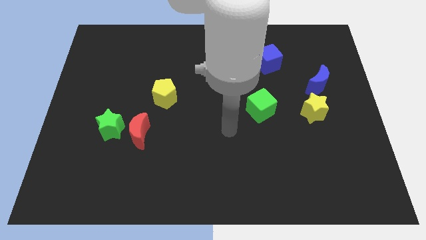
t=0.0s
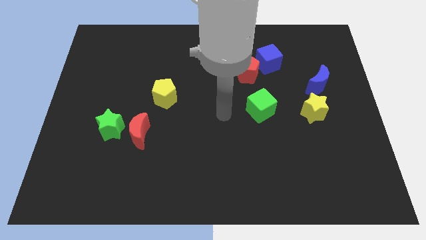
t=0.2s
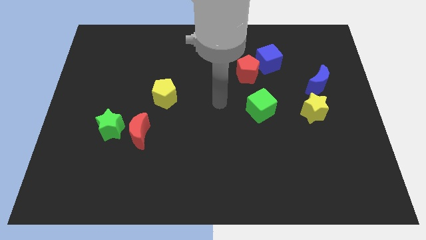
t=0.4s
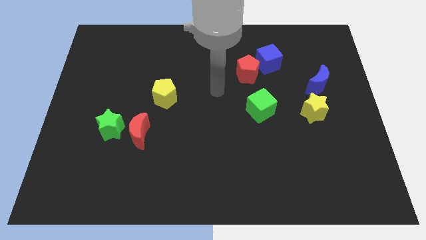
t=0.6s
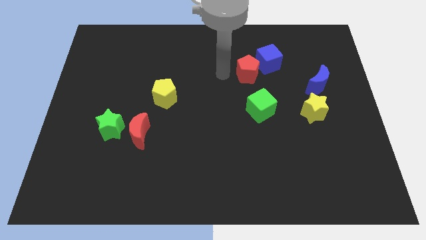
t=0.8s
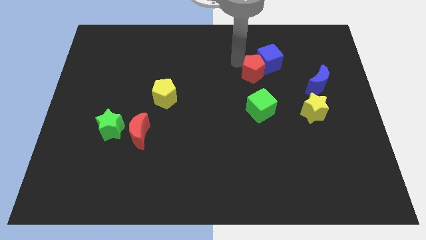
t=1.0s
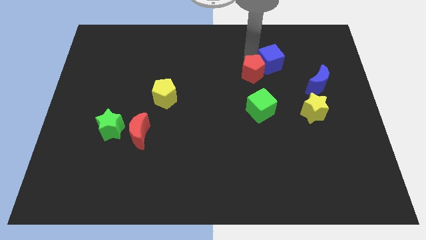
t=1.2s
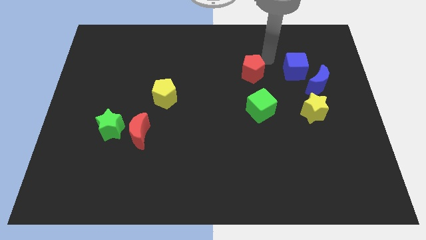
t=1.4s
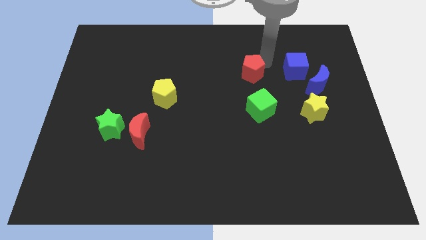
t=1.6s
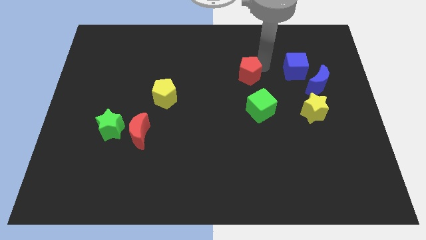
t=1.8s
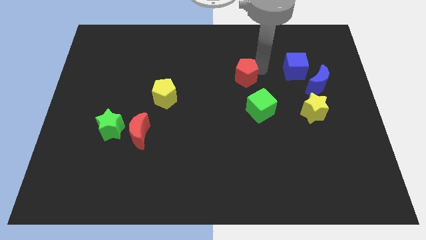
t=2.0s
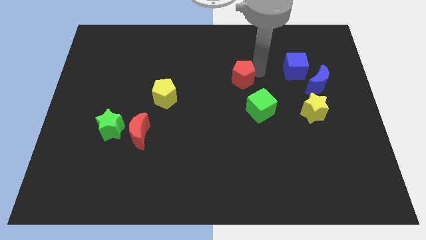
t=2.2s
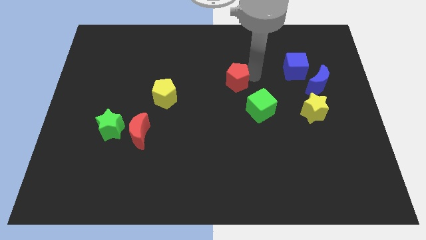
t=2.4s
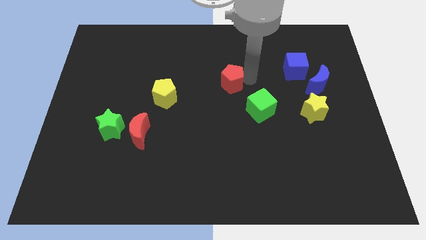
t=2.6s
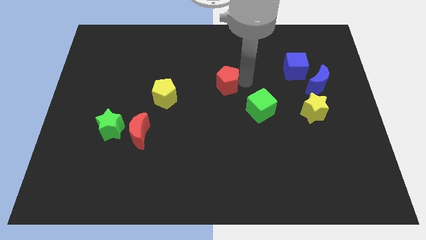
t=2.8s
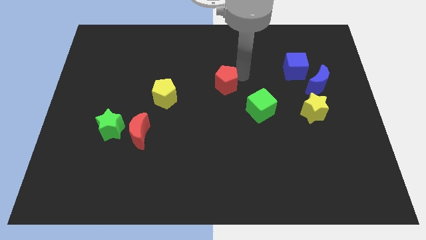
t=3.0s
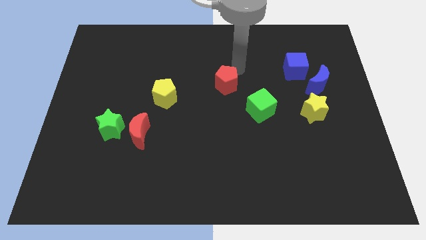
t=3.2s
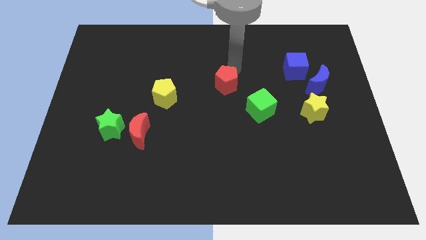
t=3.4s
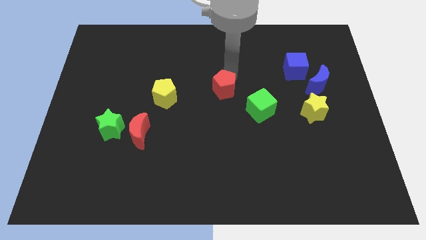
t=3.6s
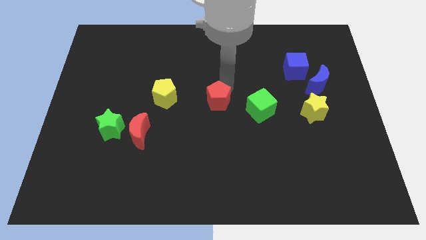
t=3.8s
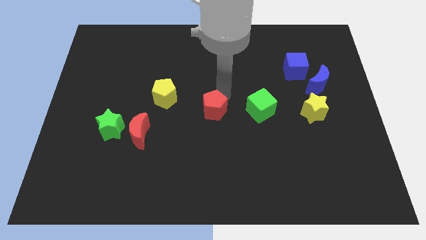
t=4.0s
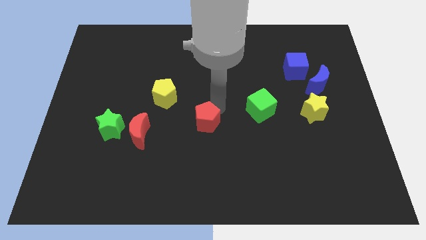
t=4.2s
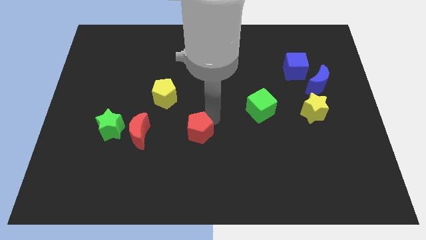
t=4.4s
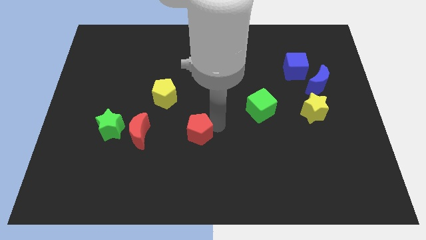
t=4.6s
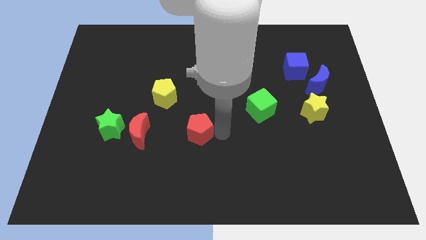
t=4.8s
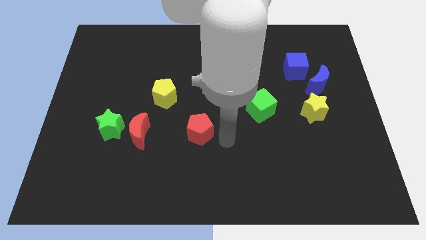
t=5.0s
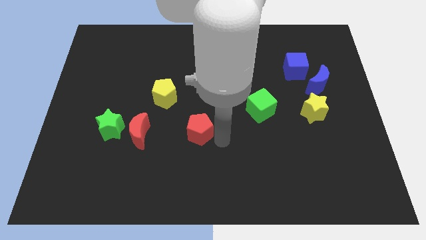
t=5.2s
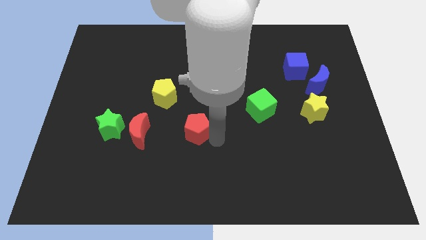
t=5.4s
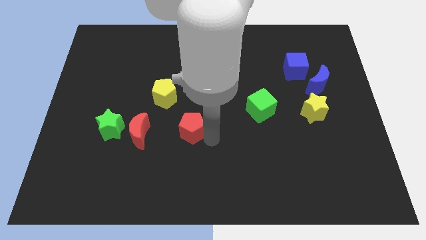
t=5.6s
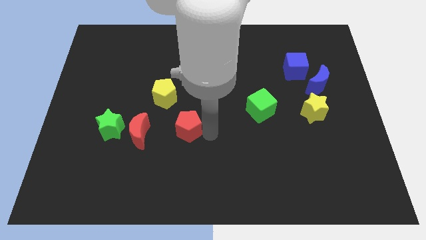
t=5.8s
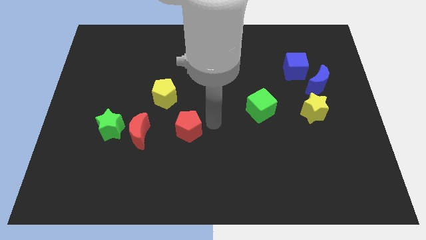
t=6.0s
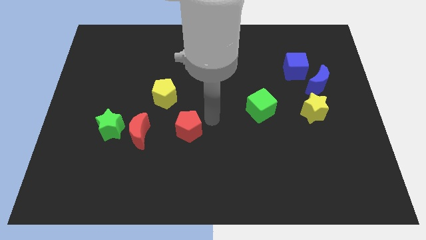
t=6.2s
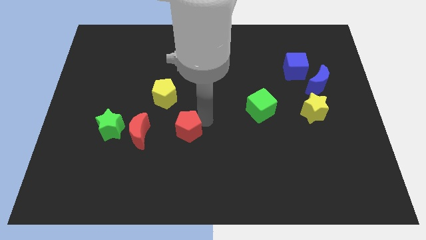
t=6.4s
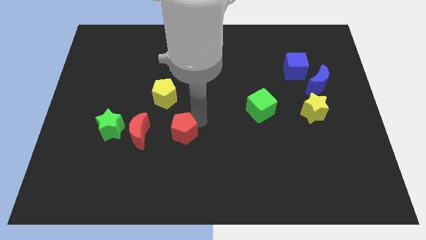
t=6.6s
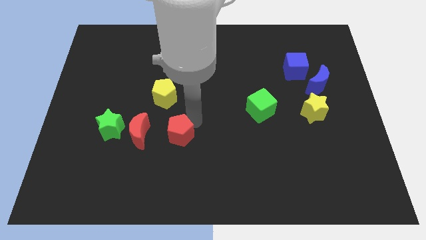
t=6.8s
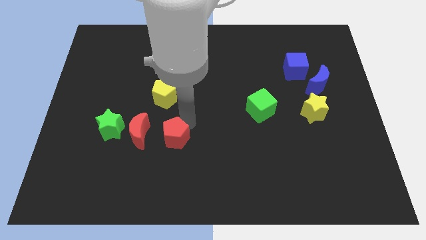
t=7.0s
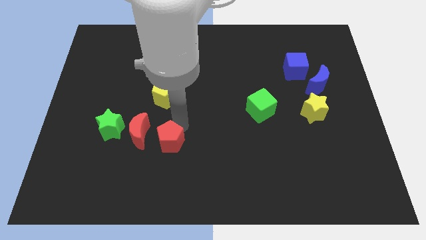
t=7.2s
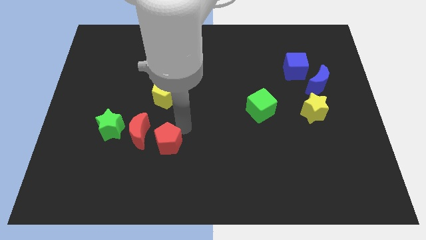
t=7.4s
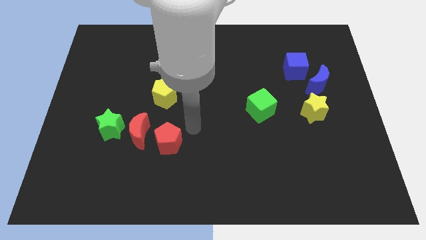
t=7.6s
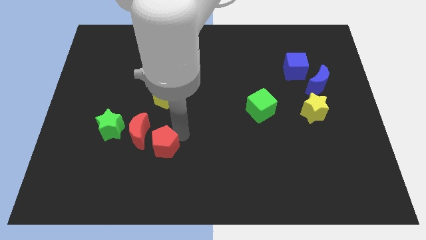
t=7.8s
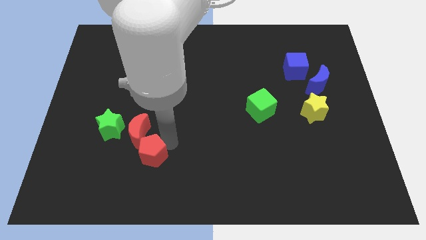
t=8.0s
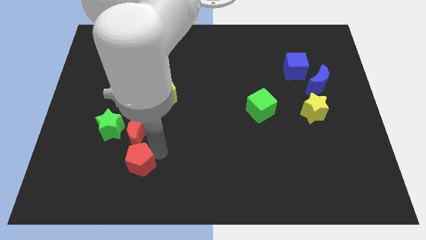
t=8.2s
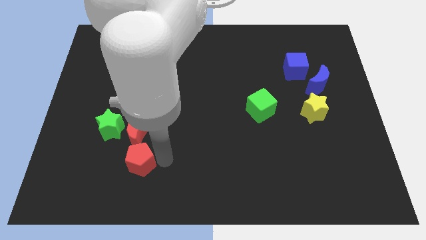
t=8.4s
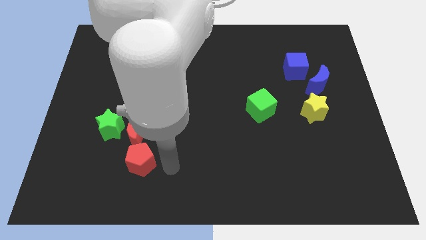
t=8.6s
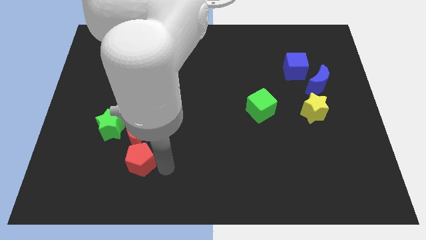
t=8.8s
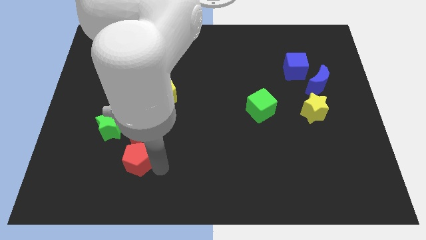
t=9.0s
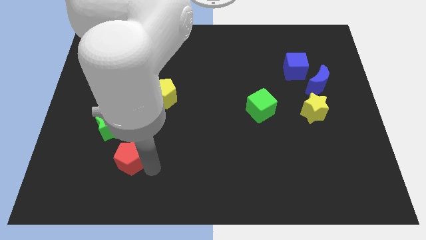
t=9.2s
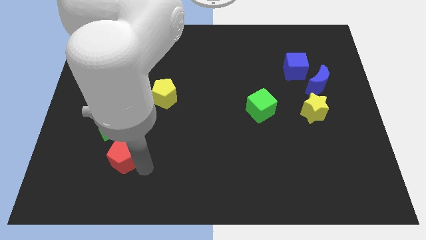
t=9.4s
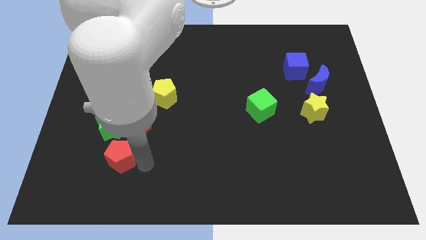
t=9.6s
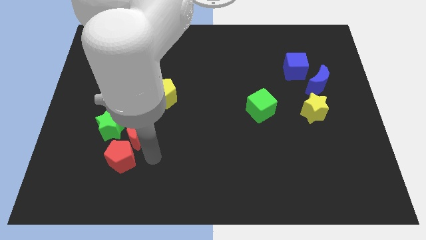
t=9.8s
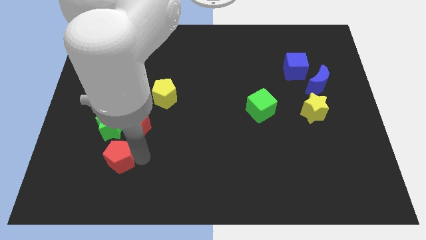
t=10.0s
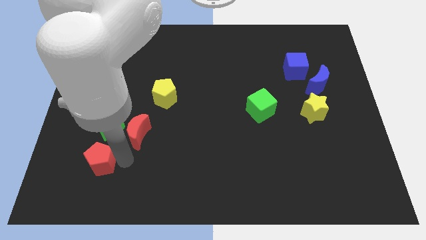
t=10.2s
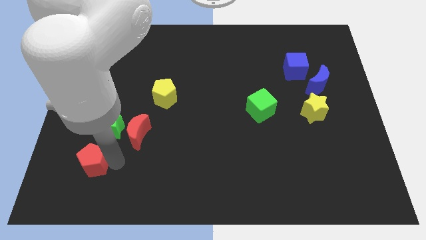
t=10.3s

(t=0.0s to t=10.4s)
move the red pentagon to the bottom left side of the green star

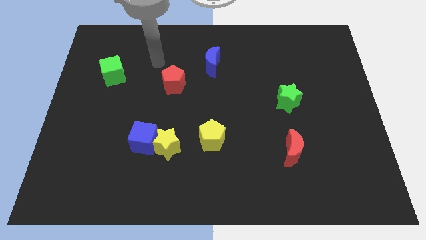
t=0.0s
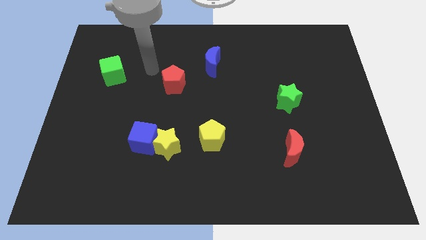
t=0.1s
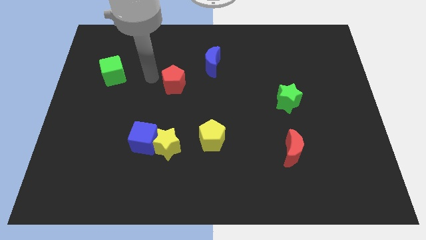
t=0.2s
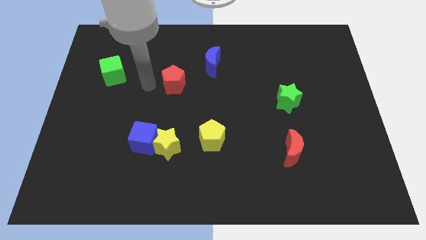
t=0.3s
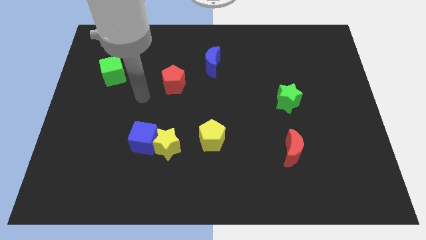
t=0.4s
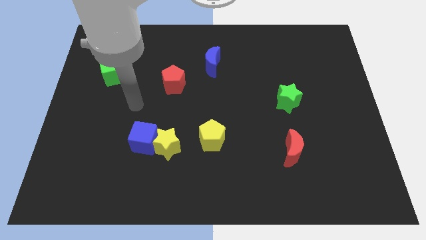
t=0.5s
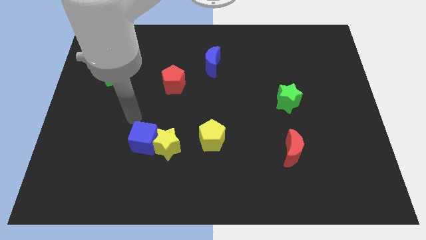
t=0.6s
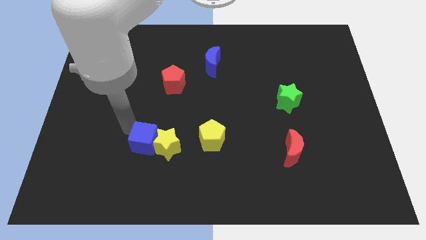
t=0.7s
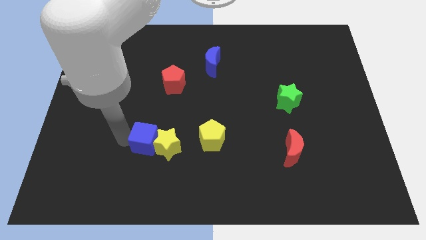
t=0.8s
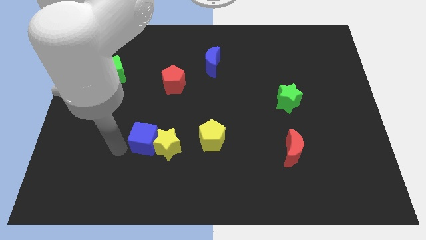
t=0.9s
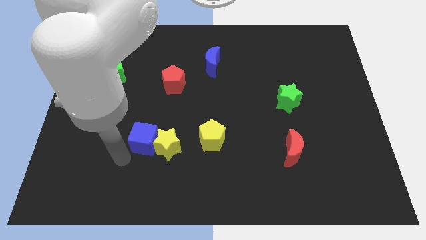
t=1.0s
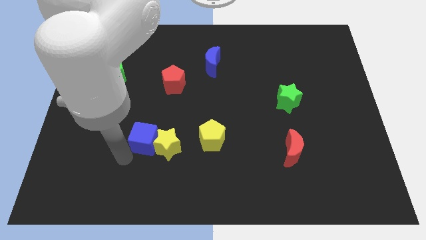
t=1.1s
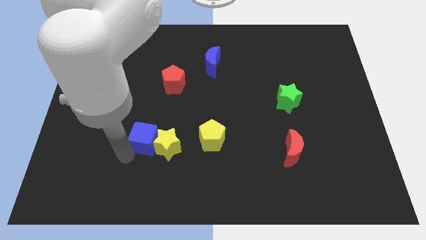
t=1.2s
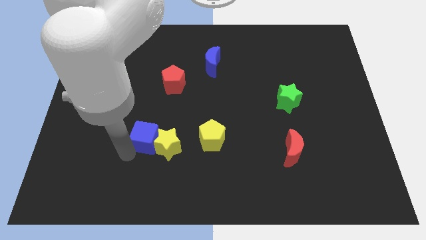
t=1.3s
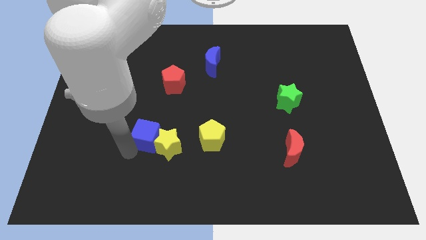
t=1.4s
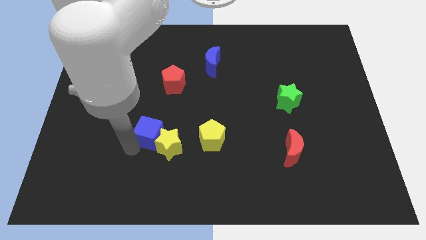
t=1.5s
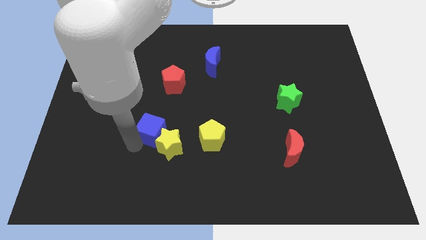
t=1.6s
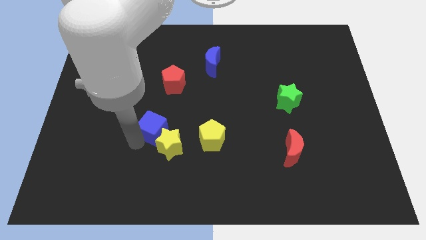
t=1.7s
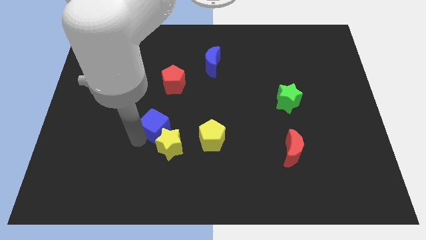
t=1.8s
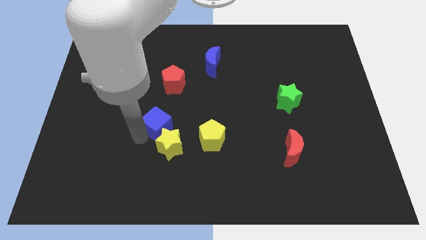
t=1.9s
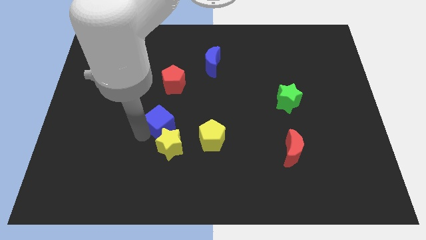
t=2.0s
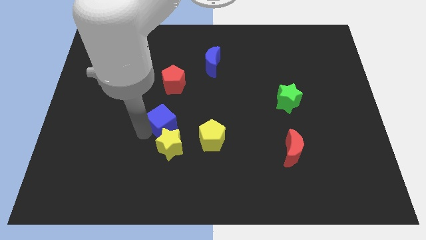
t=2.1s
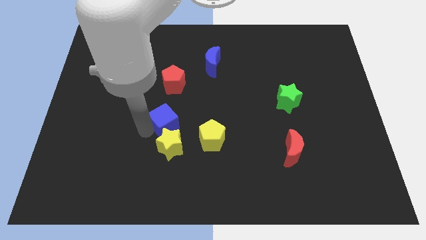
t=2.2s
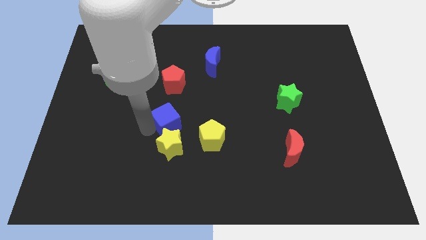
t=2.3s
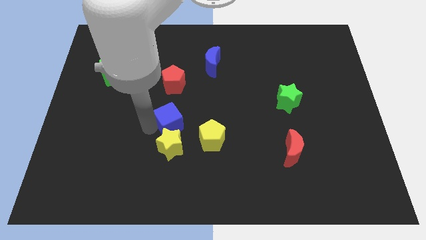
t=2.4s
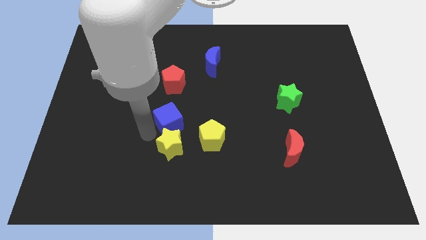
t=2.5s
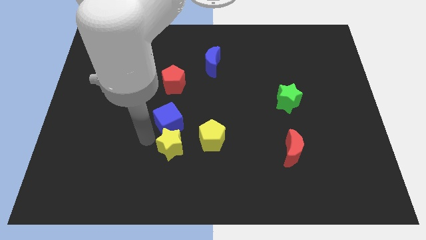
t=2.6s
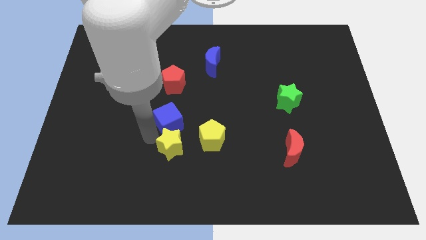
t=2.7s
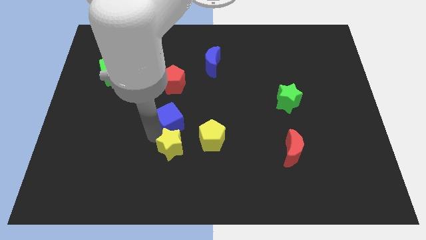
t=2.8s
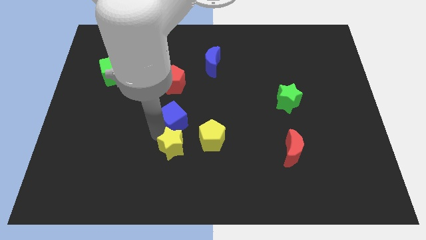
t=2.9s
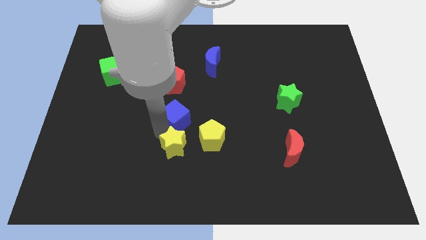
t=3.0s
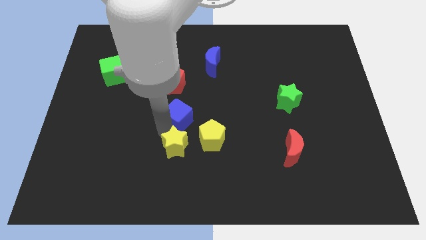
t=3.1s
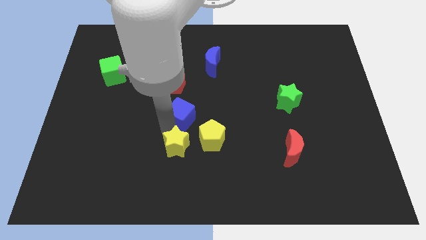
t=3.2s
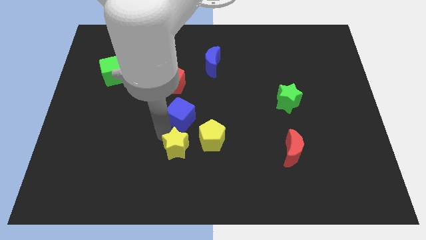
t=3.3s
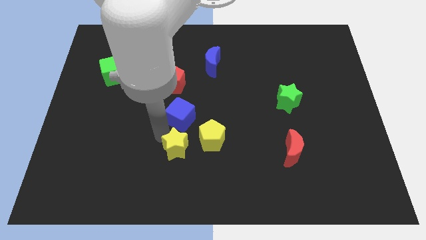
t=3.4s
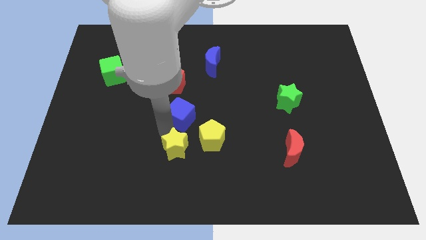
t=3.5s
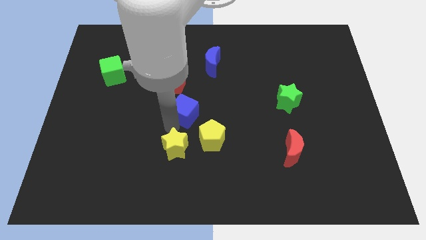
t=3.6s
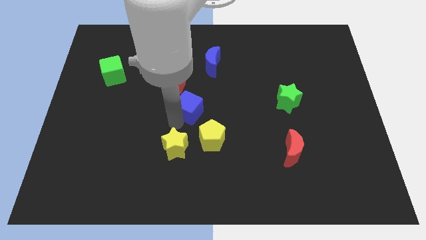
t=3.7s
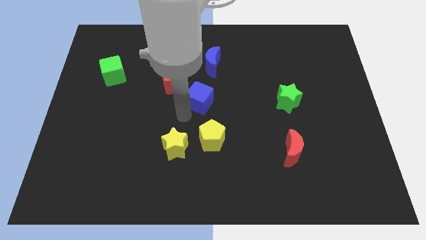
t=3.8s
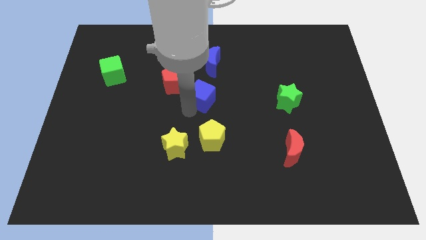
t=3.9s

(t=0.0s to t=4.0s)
put the blue cube to the right of the red pentagon
